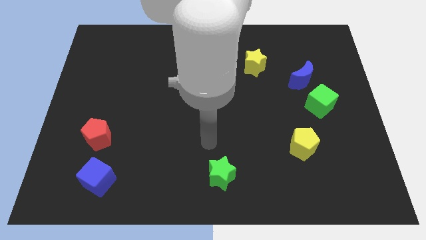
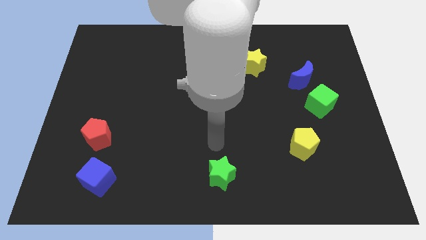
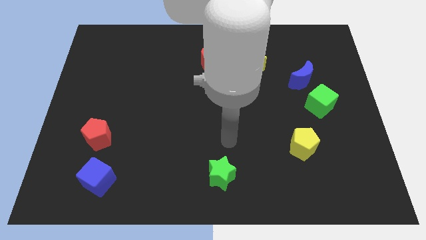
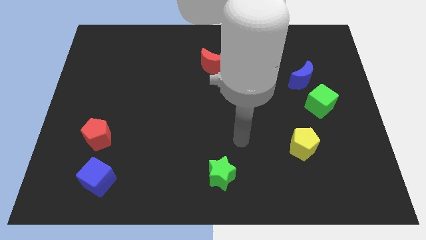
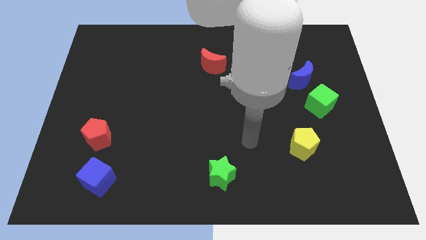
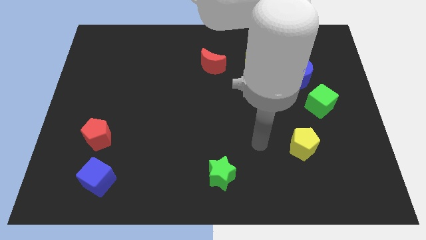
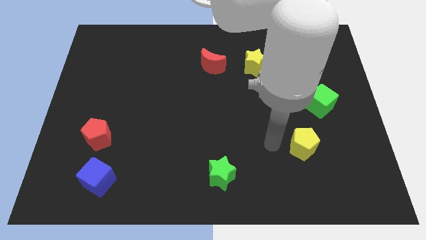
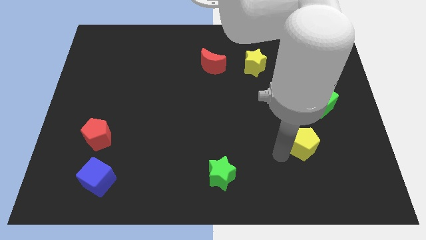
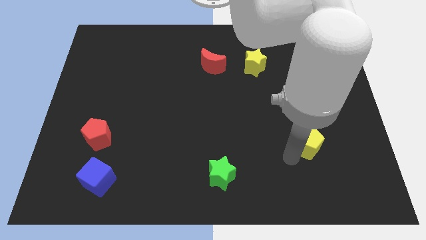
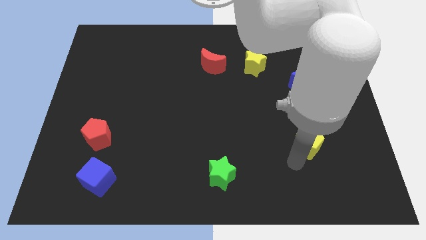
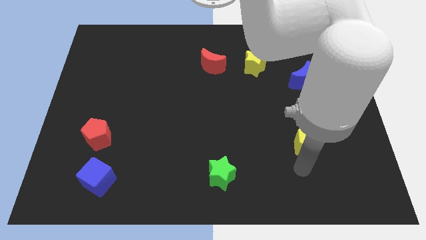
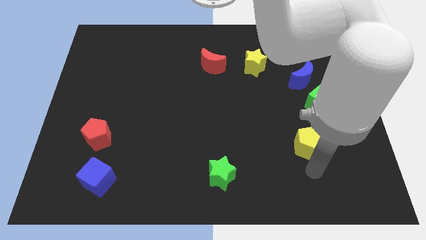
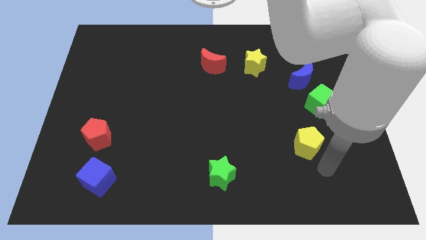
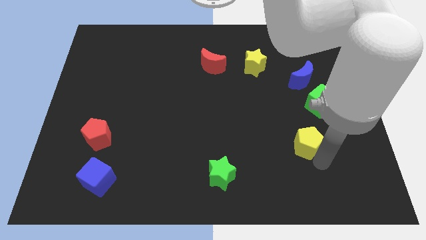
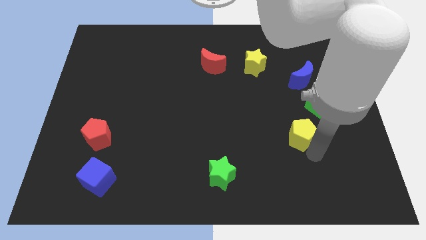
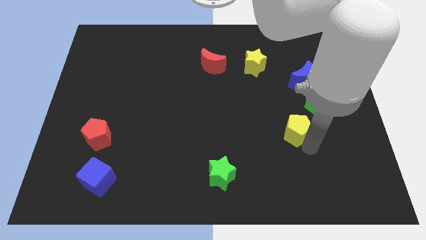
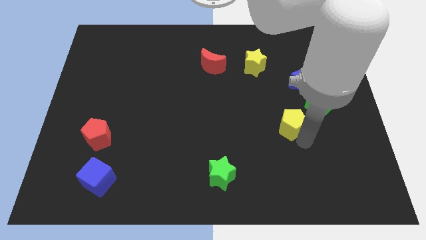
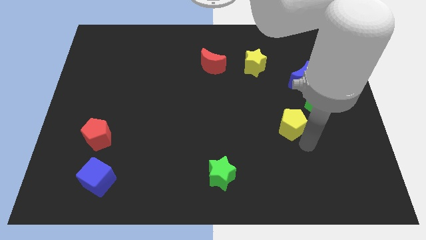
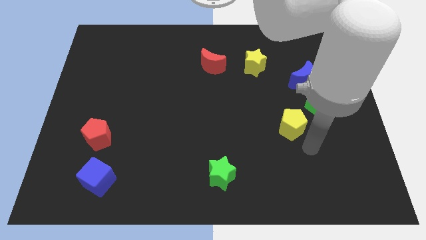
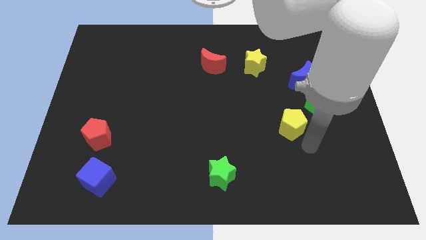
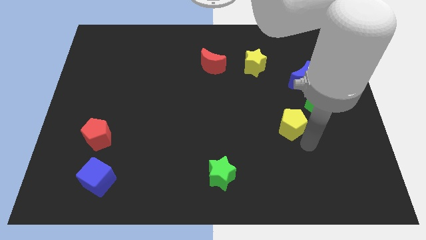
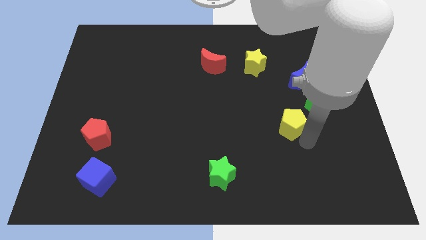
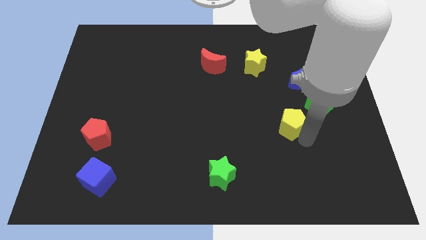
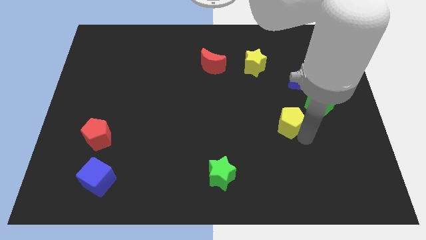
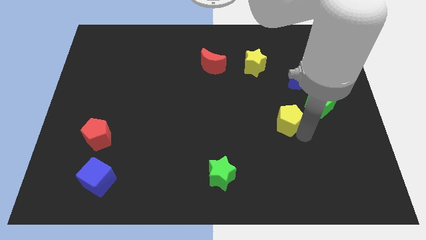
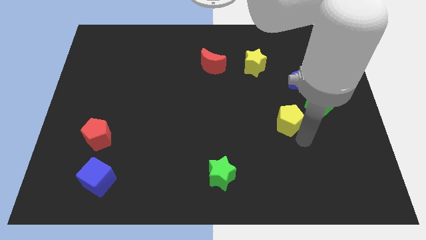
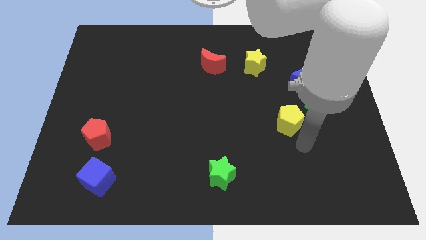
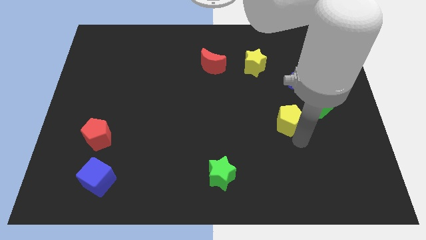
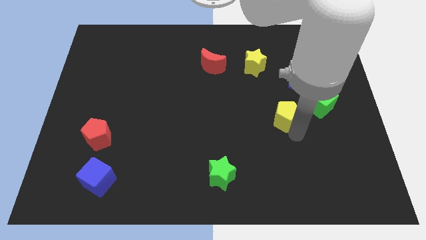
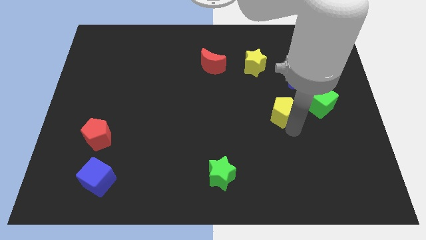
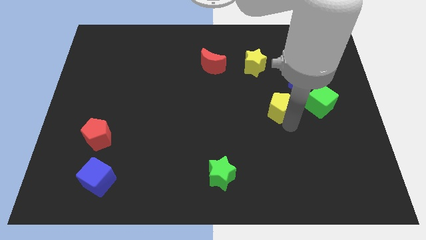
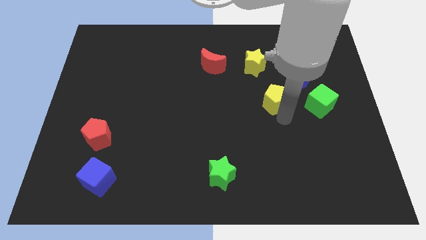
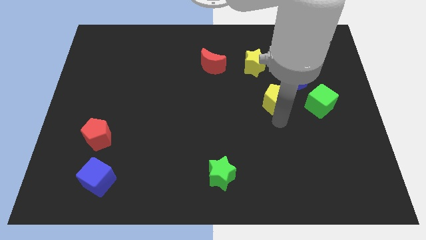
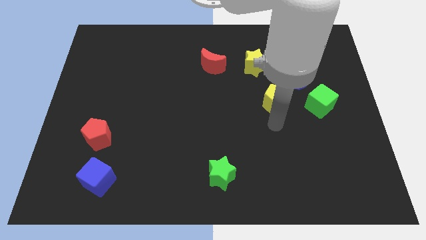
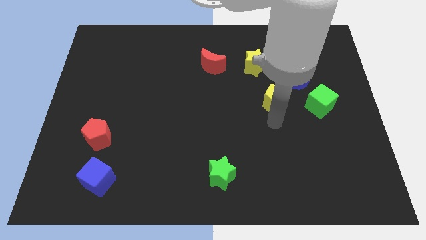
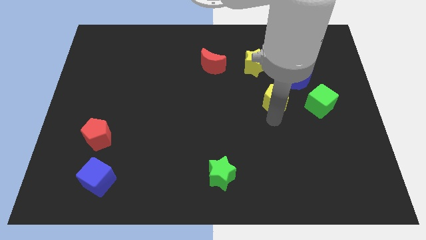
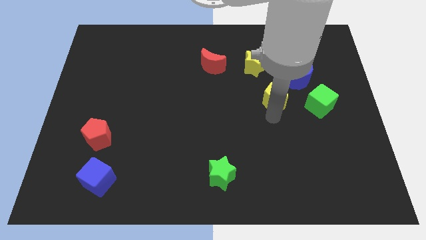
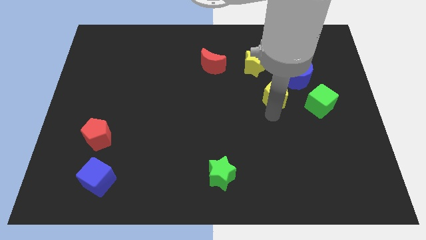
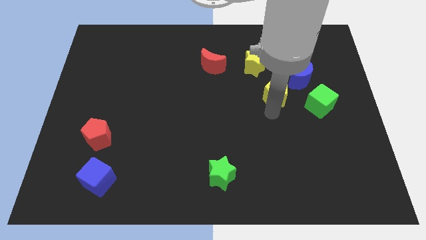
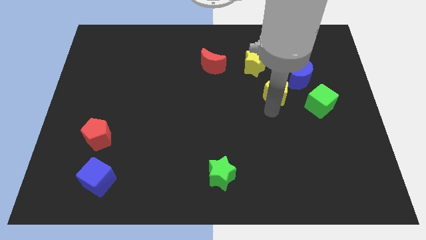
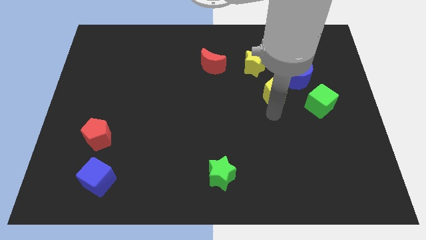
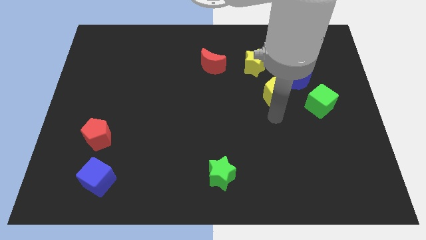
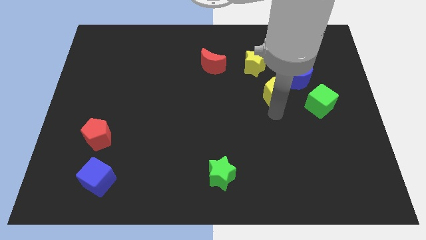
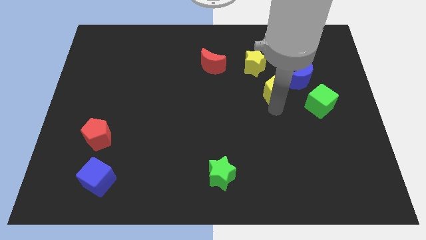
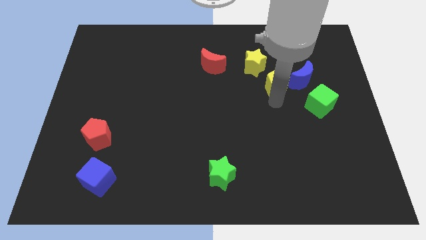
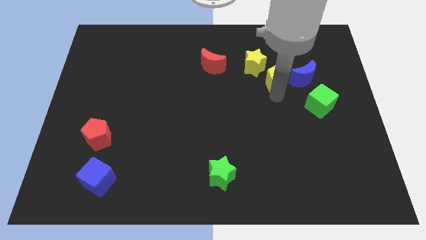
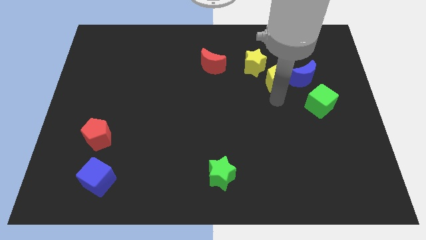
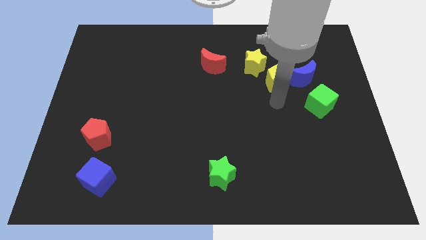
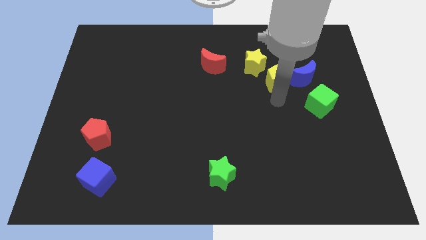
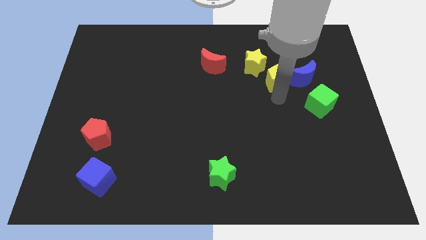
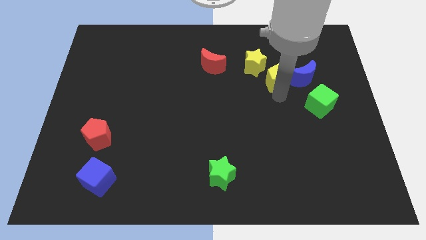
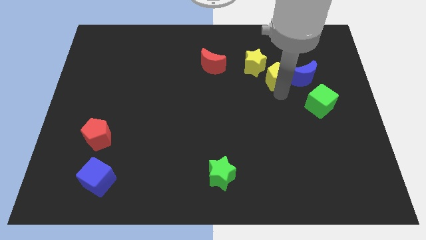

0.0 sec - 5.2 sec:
move the yellow pentagon to the right side of the yellow star

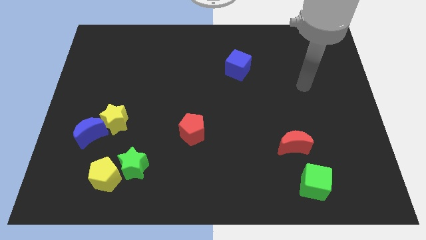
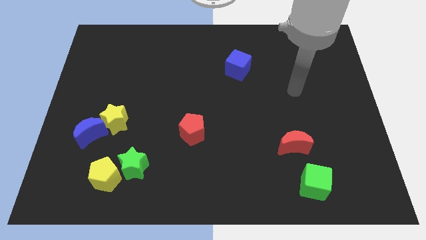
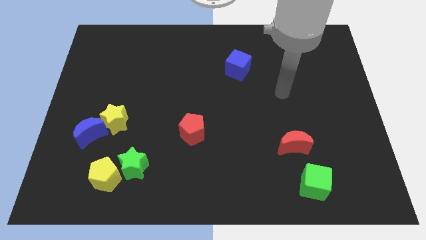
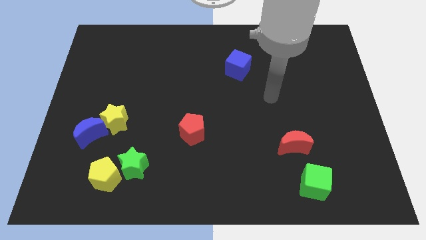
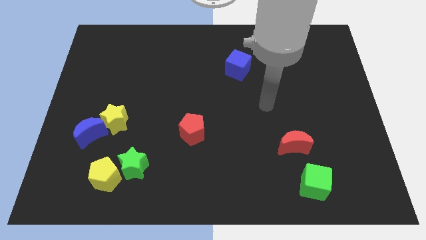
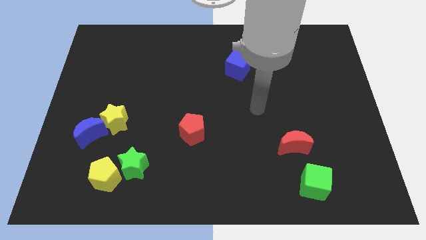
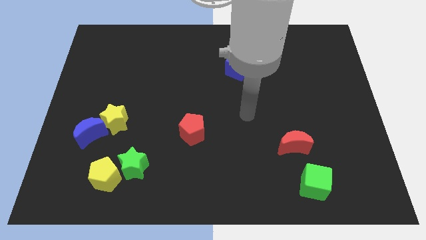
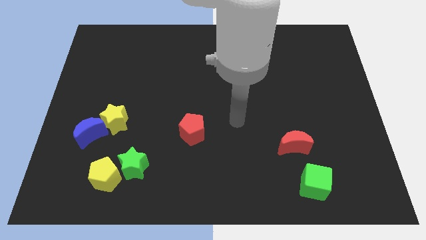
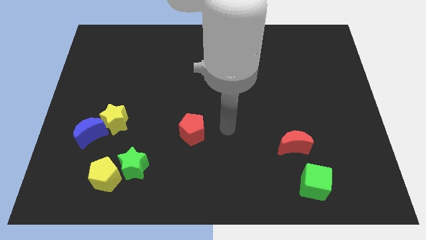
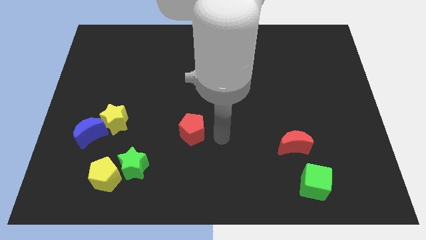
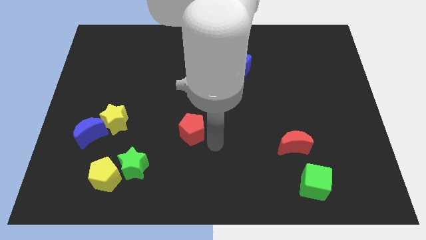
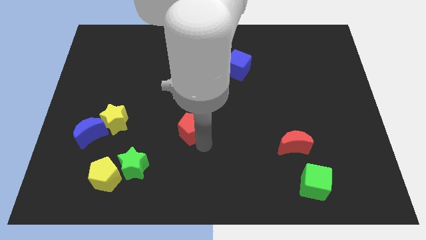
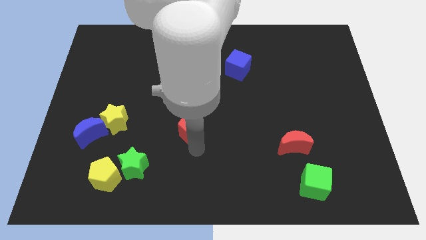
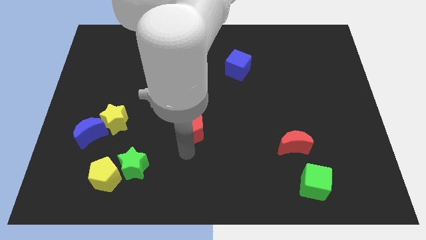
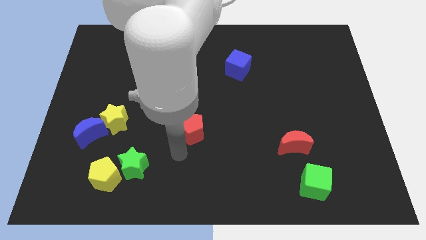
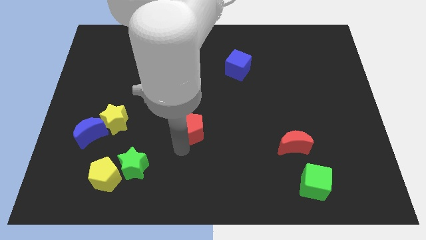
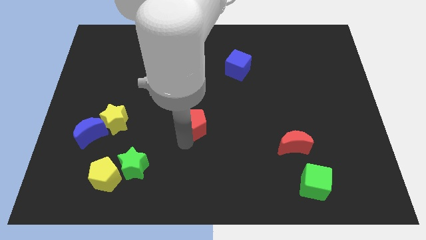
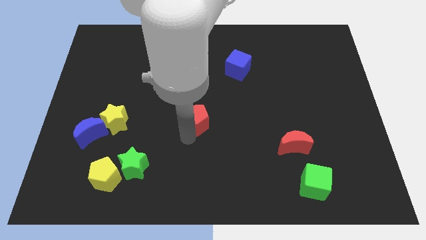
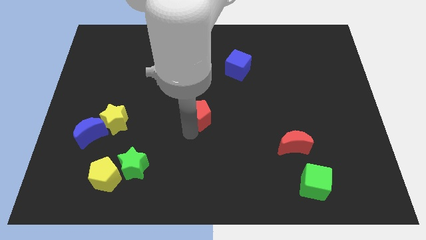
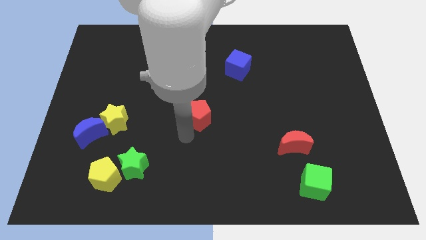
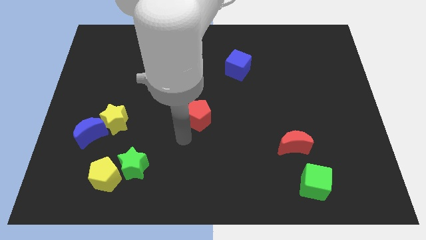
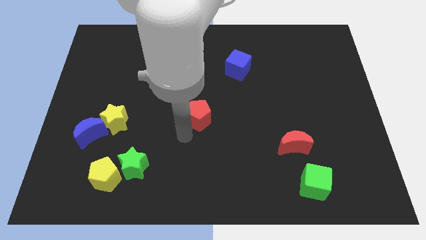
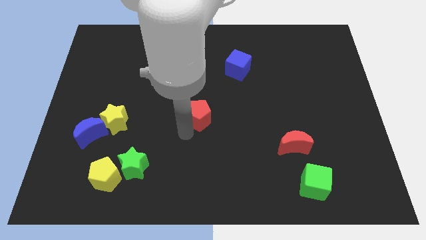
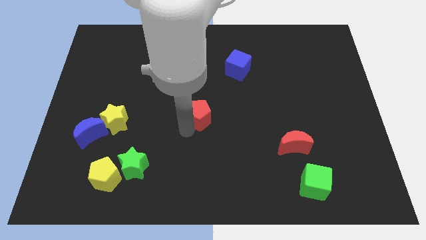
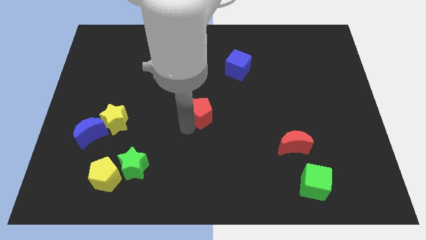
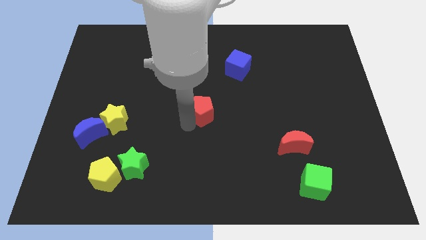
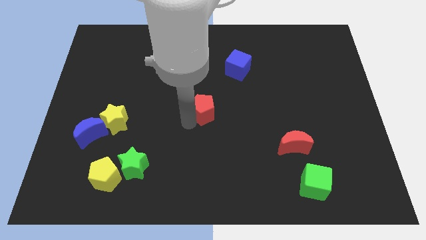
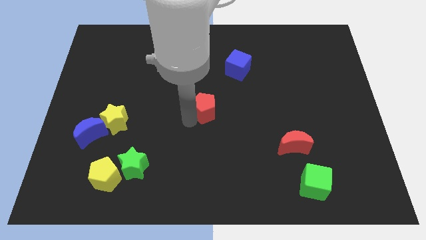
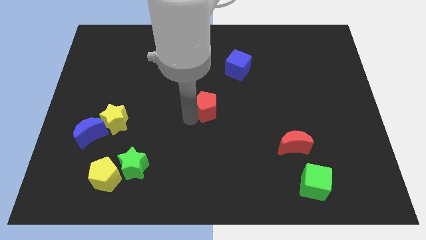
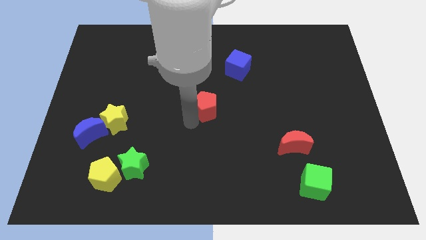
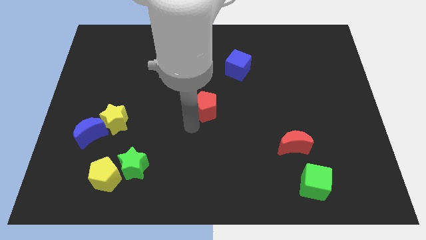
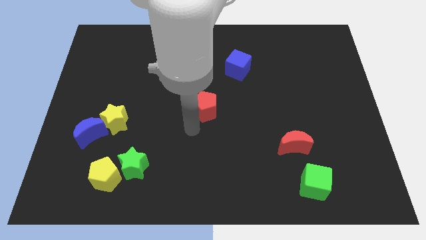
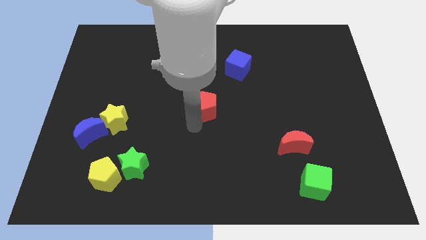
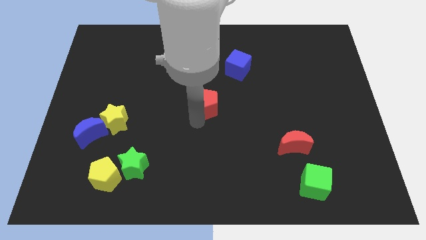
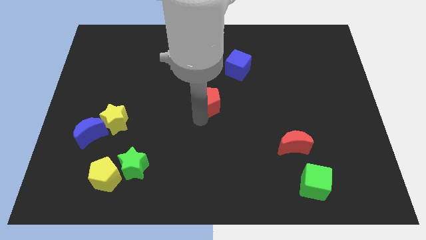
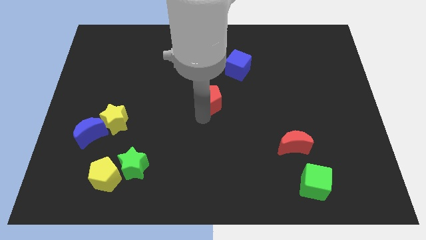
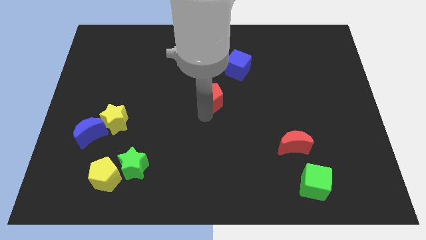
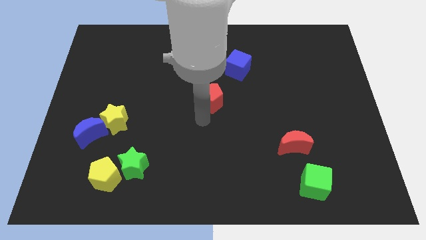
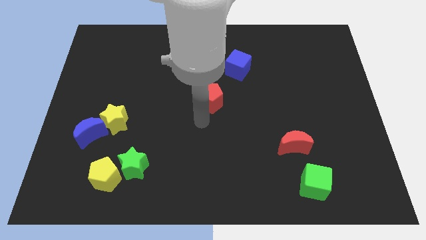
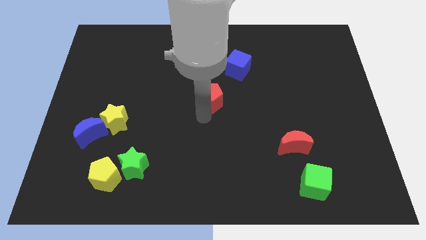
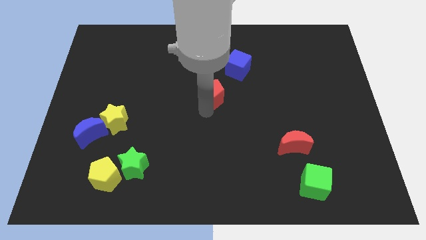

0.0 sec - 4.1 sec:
push the red pentagon diagonally down and to the left of the blue cube
